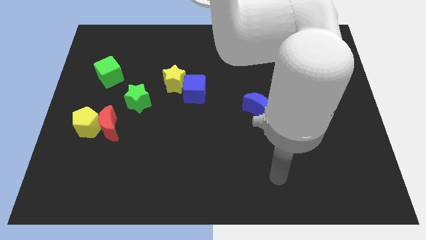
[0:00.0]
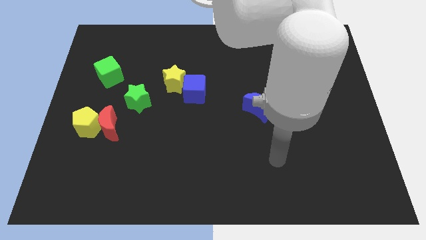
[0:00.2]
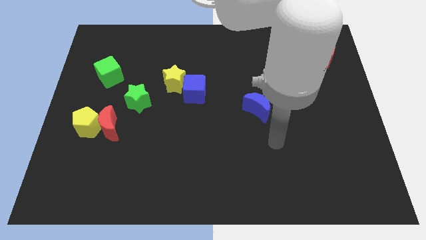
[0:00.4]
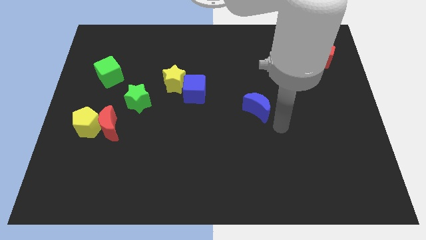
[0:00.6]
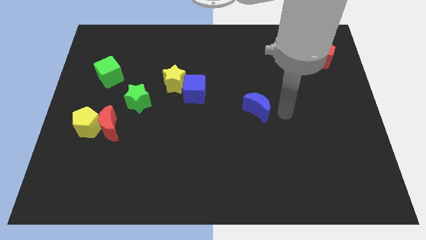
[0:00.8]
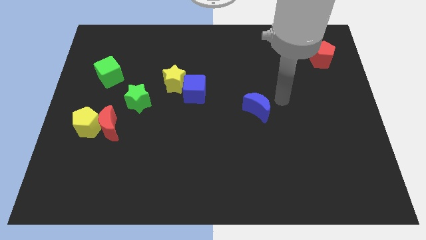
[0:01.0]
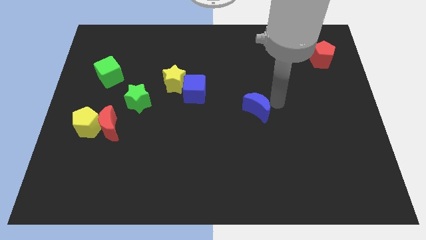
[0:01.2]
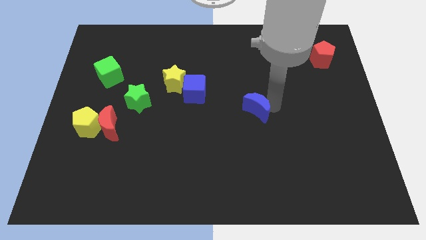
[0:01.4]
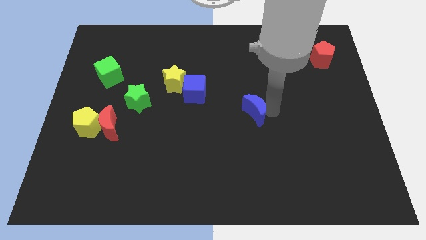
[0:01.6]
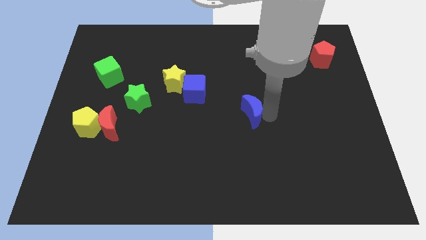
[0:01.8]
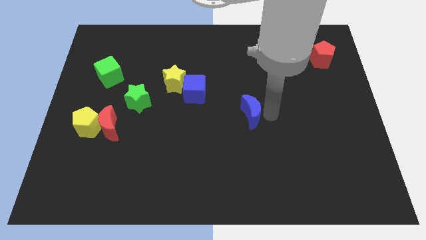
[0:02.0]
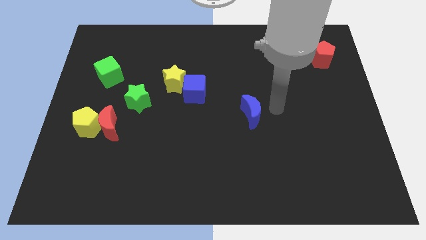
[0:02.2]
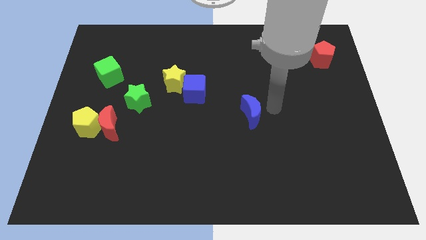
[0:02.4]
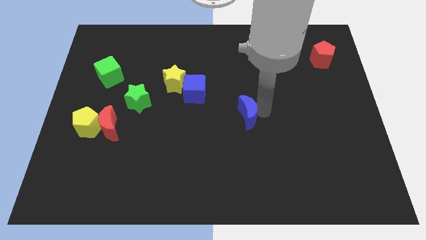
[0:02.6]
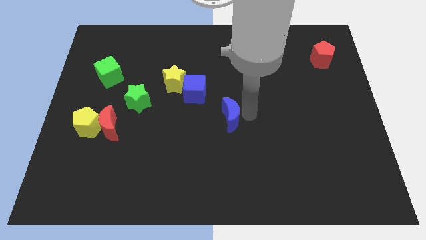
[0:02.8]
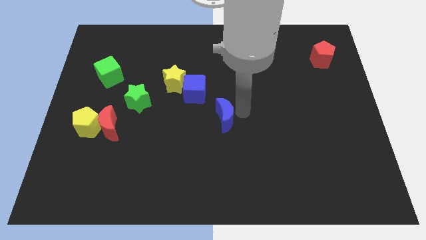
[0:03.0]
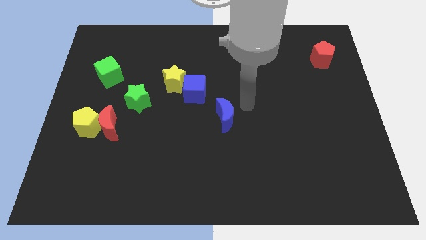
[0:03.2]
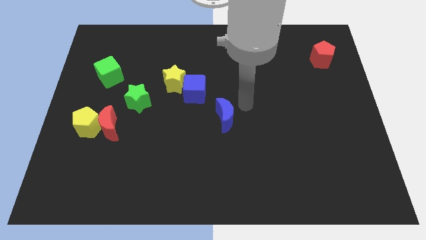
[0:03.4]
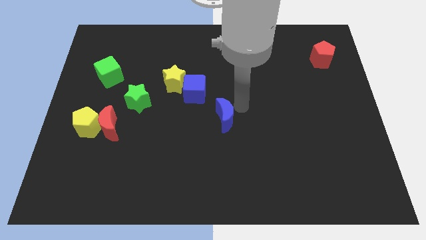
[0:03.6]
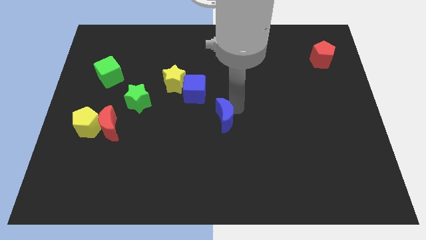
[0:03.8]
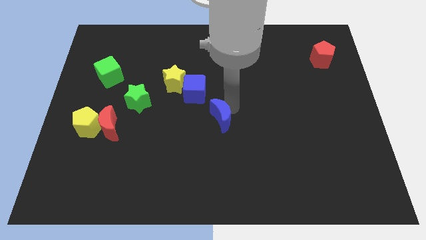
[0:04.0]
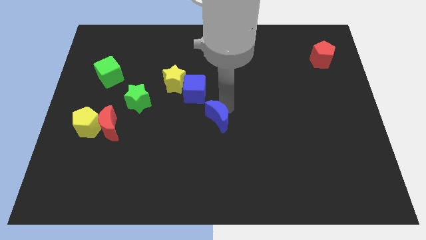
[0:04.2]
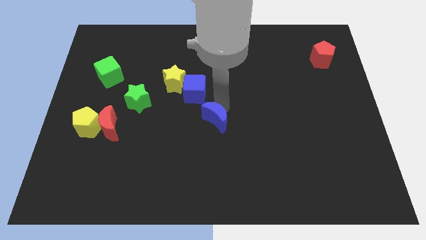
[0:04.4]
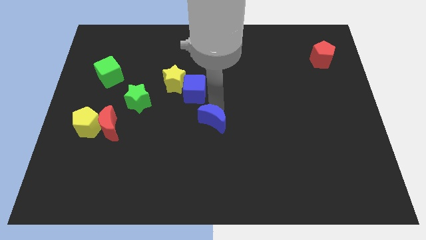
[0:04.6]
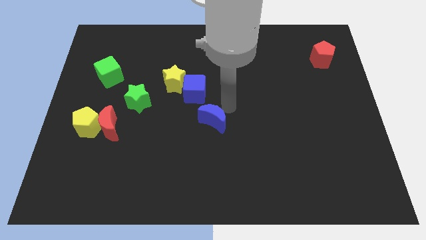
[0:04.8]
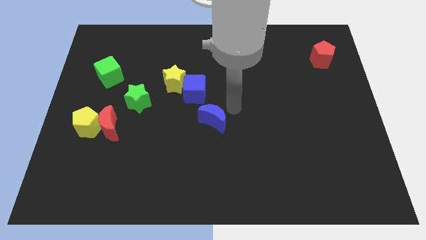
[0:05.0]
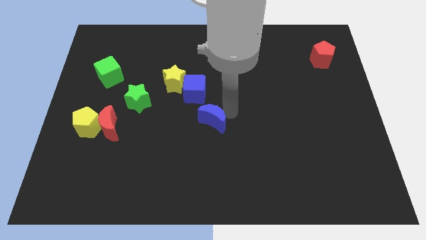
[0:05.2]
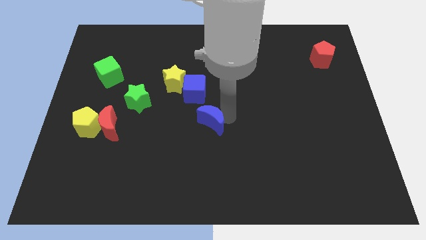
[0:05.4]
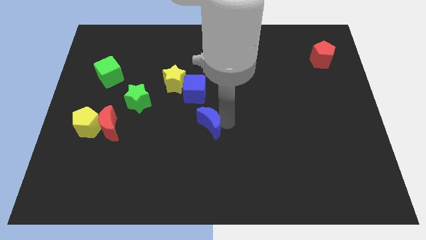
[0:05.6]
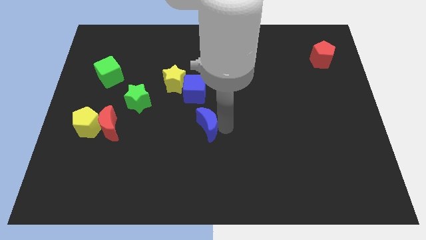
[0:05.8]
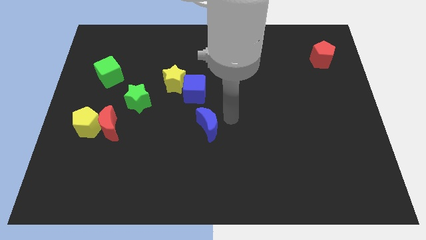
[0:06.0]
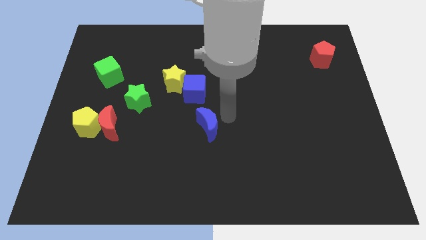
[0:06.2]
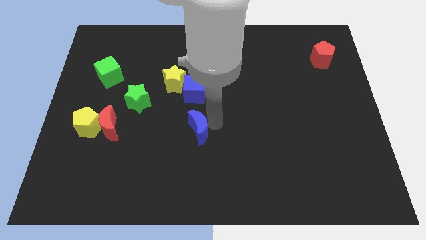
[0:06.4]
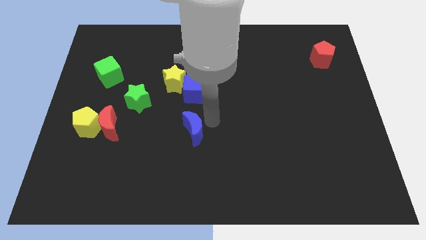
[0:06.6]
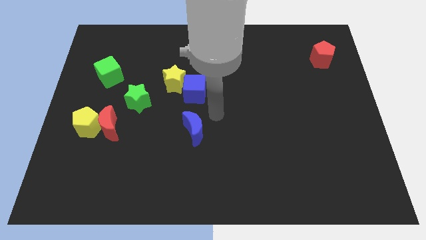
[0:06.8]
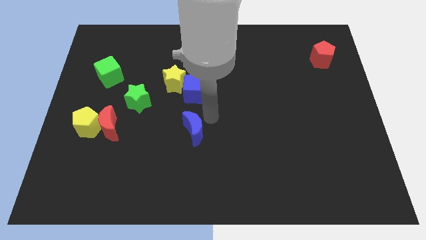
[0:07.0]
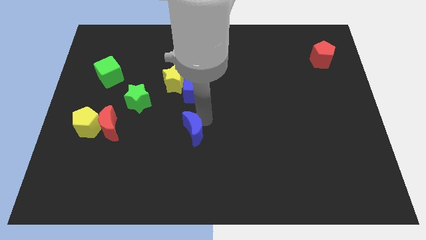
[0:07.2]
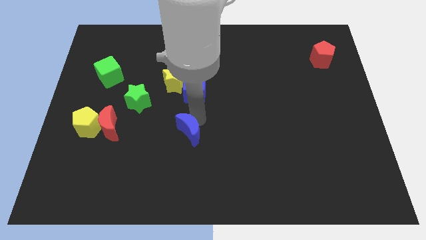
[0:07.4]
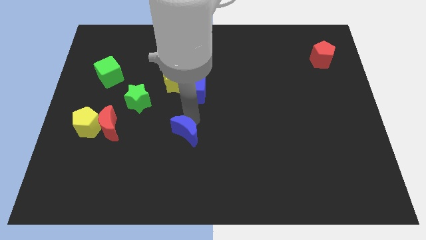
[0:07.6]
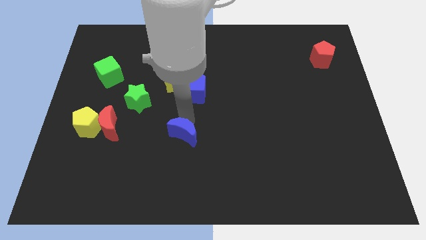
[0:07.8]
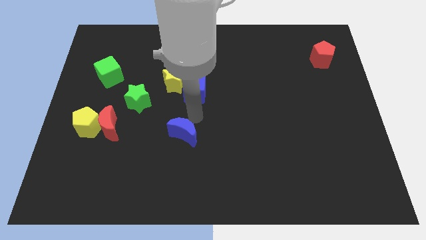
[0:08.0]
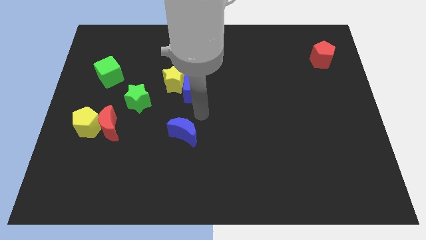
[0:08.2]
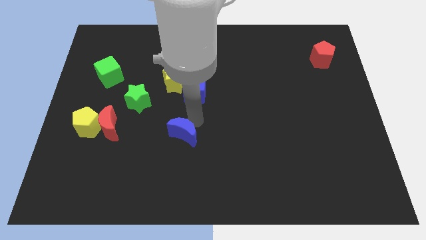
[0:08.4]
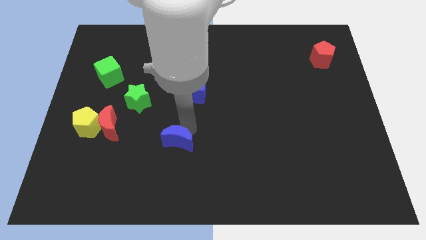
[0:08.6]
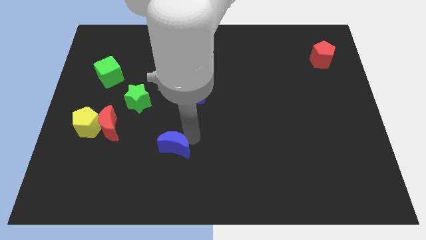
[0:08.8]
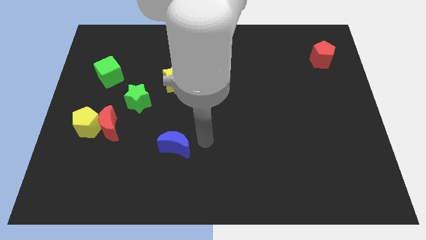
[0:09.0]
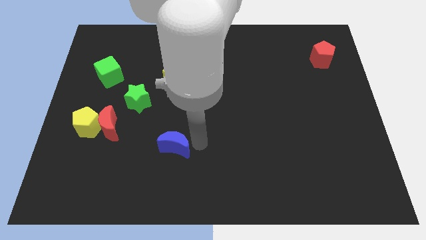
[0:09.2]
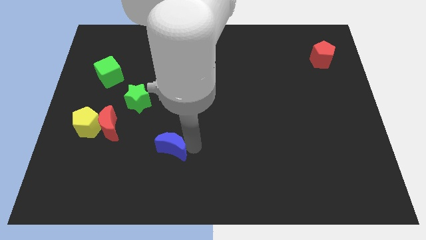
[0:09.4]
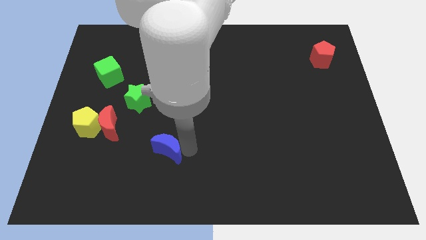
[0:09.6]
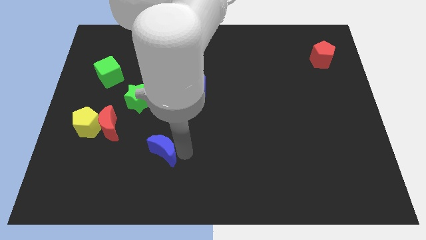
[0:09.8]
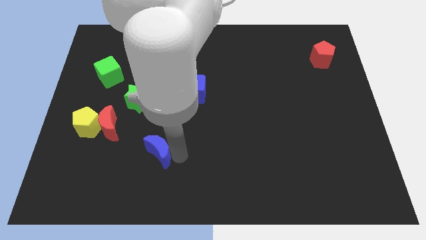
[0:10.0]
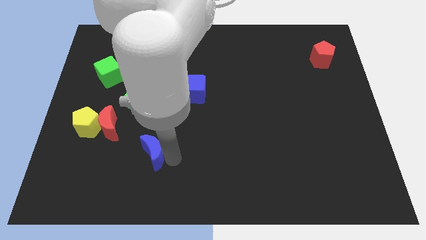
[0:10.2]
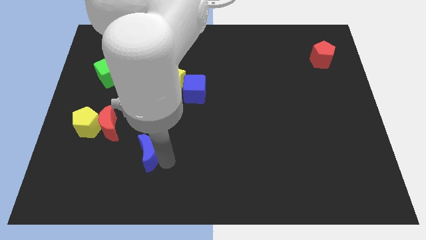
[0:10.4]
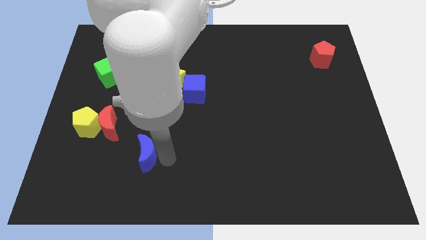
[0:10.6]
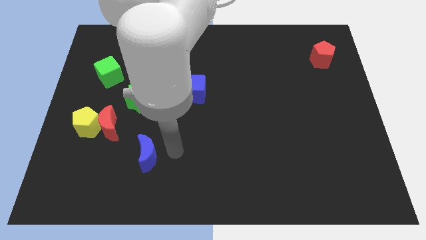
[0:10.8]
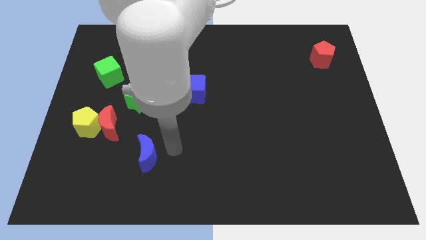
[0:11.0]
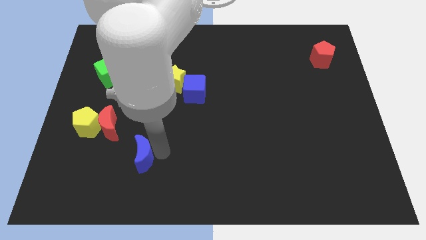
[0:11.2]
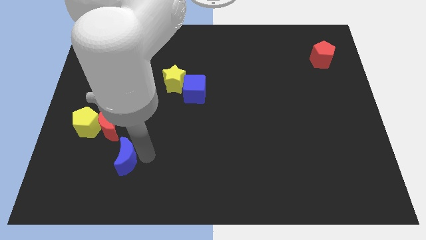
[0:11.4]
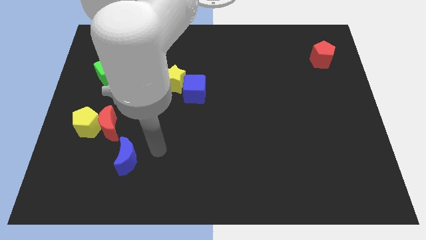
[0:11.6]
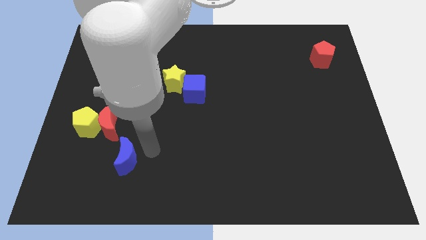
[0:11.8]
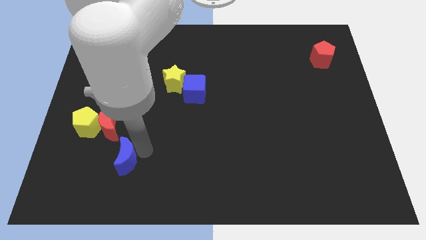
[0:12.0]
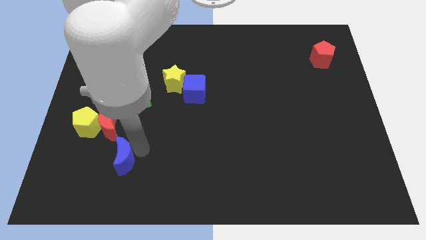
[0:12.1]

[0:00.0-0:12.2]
slide the blue moon to the bottom side of the red moon
